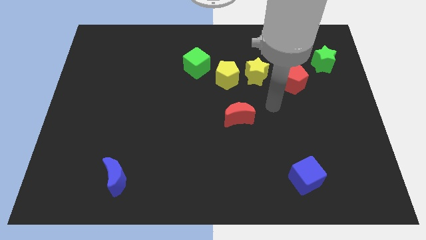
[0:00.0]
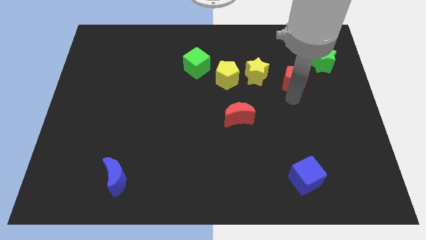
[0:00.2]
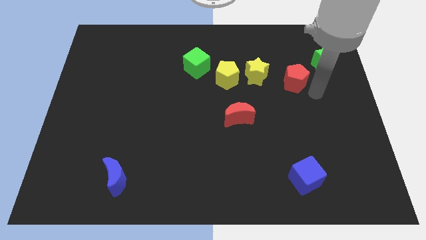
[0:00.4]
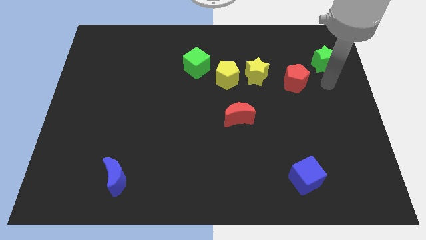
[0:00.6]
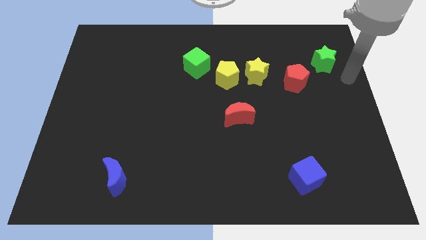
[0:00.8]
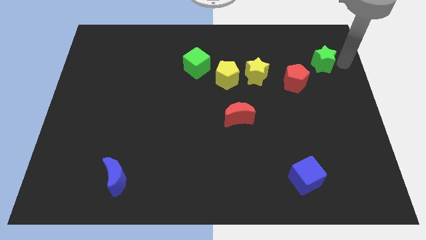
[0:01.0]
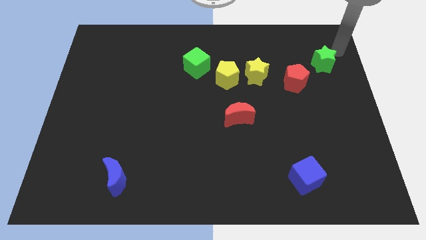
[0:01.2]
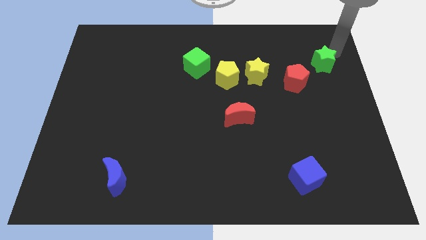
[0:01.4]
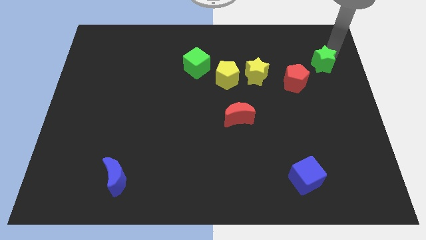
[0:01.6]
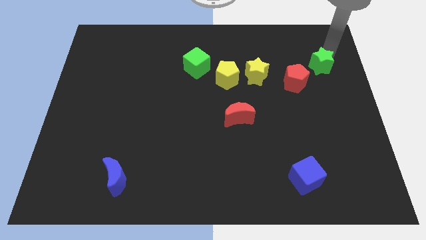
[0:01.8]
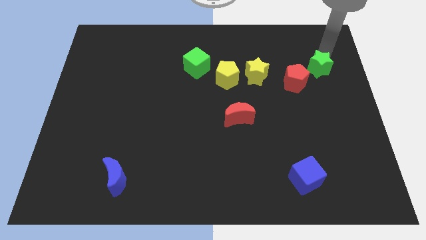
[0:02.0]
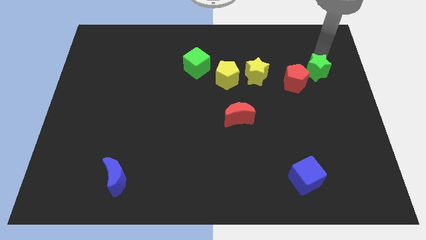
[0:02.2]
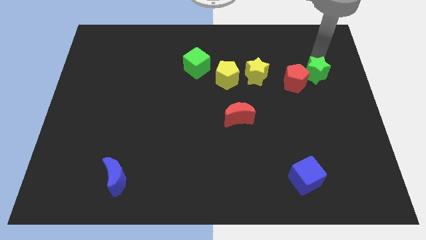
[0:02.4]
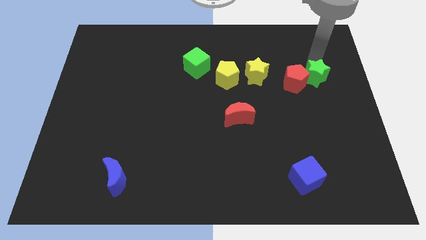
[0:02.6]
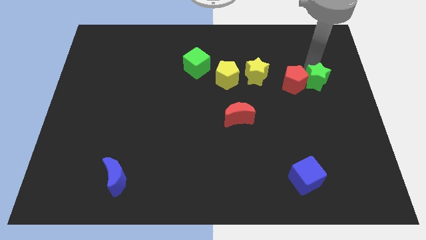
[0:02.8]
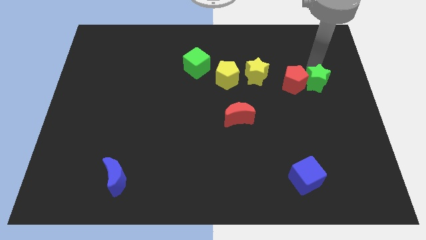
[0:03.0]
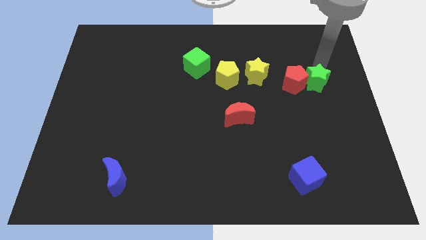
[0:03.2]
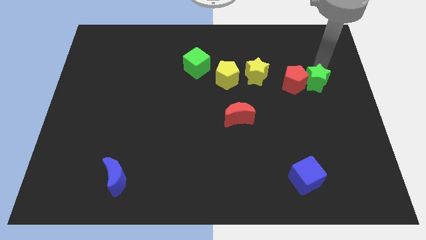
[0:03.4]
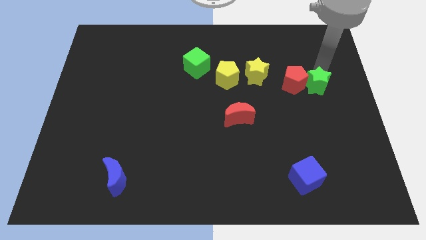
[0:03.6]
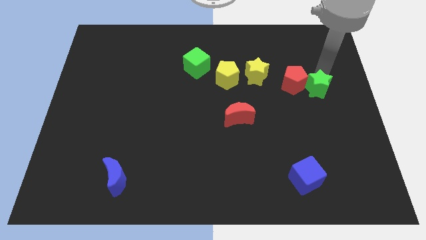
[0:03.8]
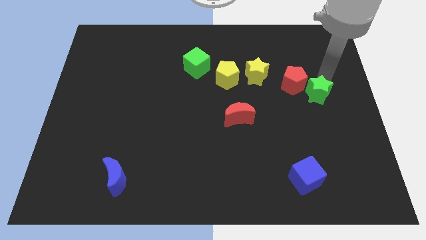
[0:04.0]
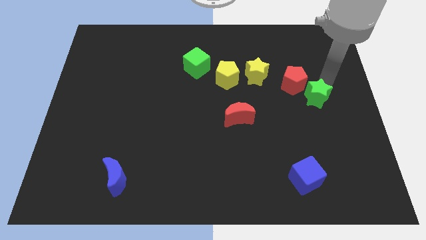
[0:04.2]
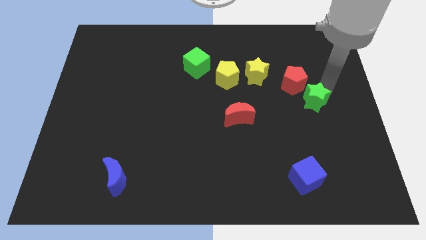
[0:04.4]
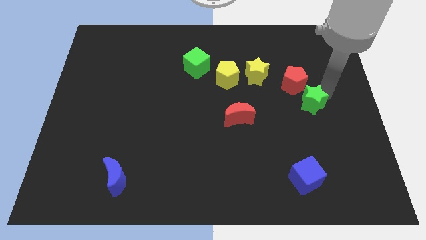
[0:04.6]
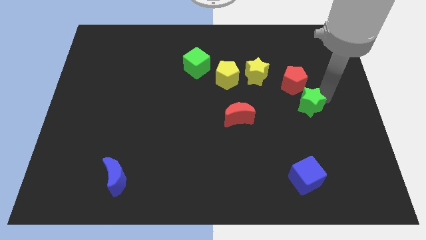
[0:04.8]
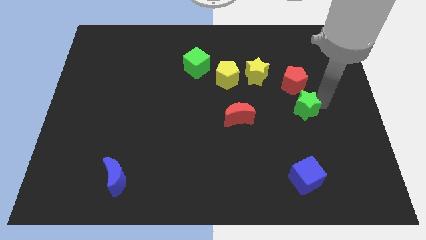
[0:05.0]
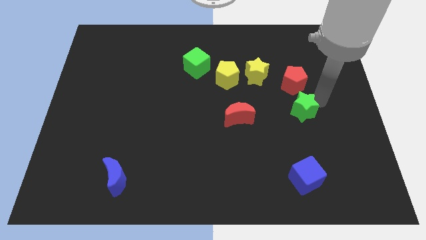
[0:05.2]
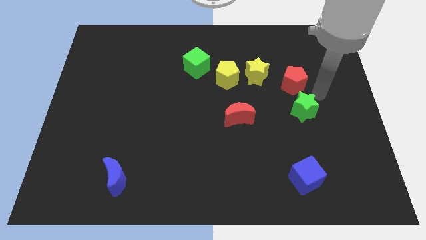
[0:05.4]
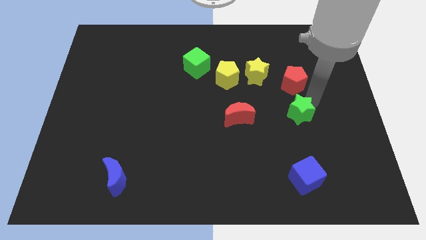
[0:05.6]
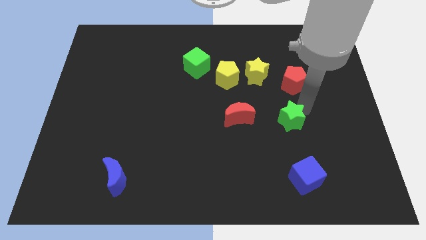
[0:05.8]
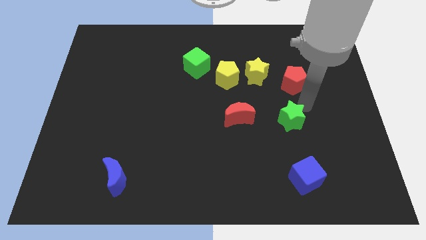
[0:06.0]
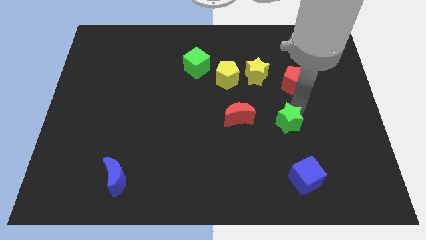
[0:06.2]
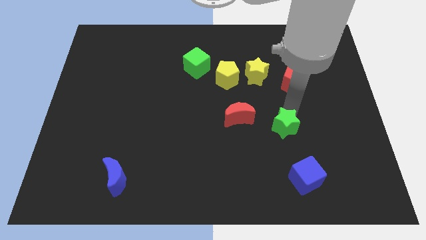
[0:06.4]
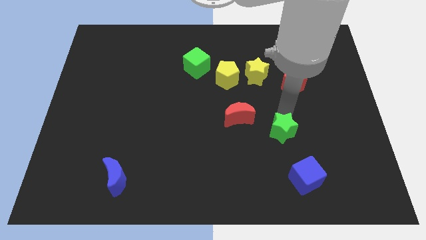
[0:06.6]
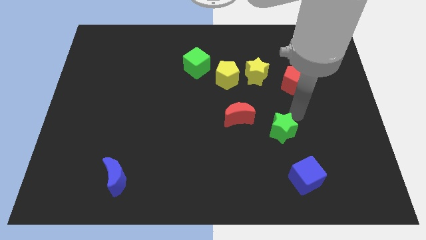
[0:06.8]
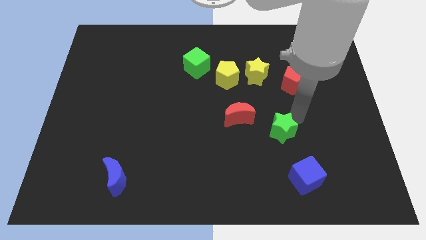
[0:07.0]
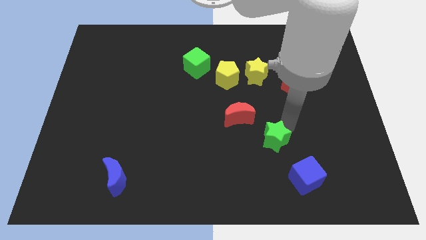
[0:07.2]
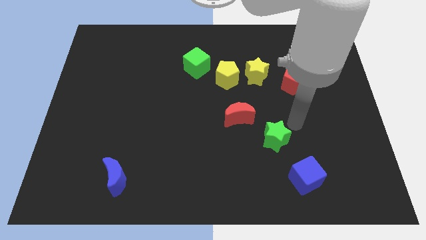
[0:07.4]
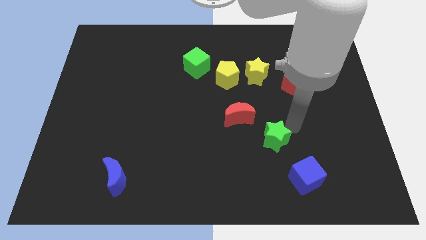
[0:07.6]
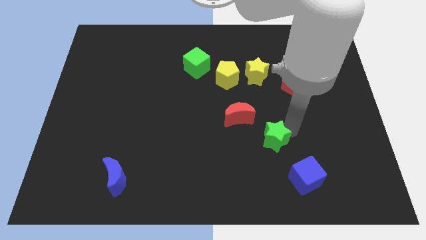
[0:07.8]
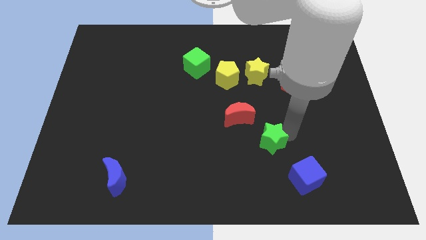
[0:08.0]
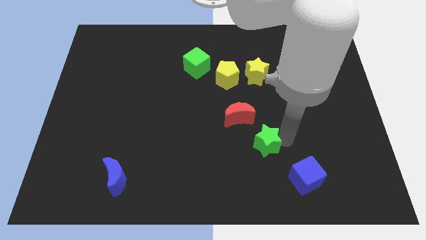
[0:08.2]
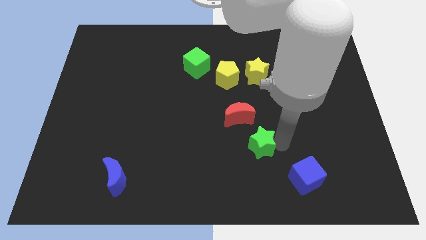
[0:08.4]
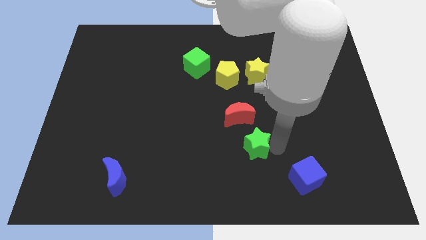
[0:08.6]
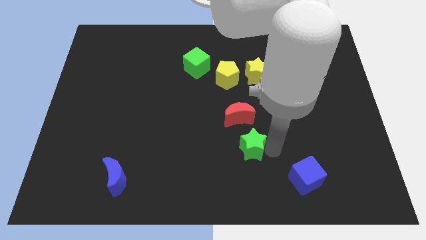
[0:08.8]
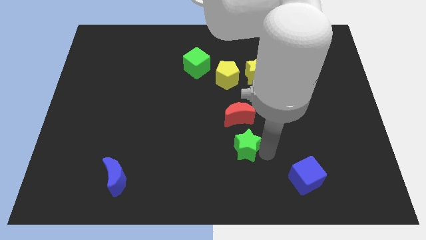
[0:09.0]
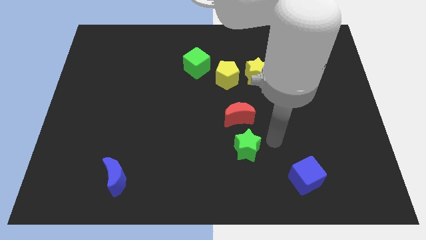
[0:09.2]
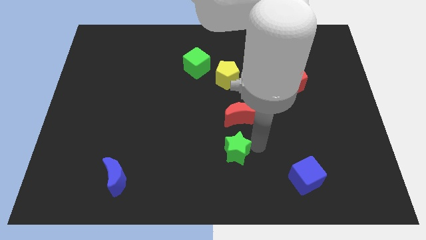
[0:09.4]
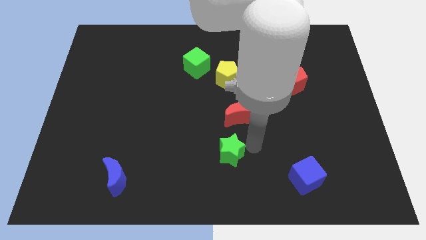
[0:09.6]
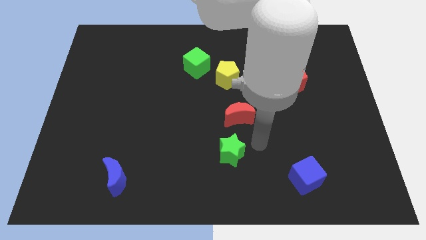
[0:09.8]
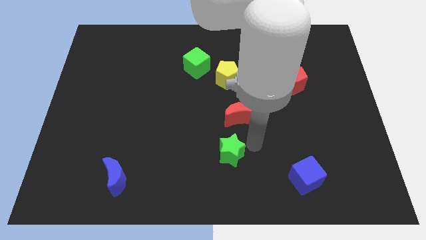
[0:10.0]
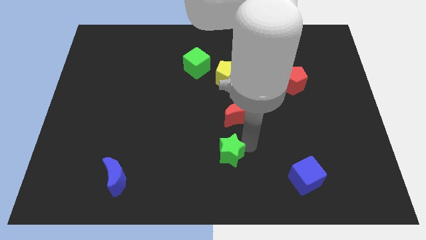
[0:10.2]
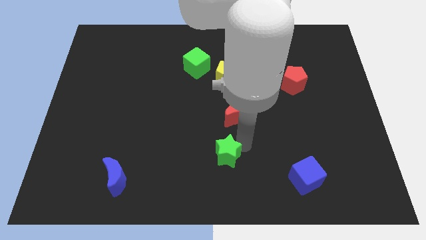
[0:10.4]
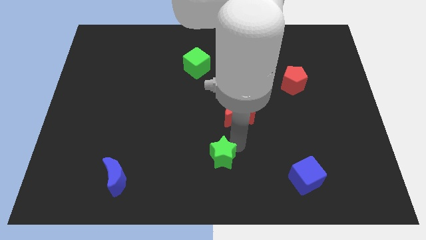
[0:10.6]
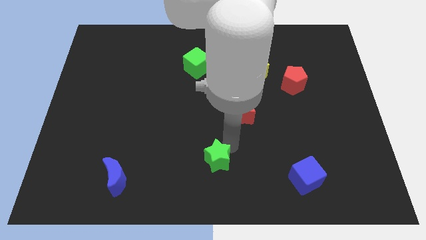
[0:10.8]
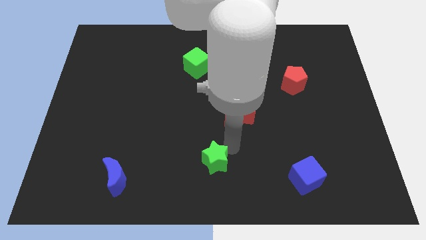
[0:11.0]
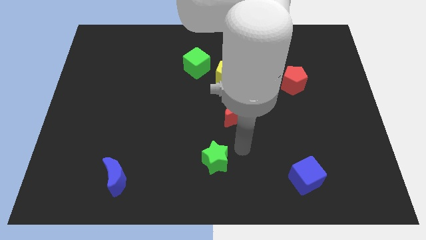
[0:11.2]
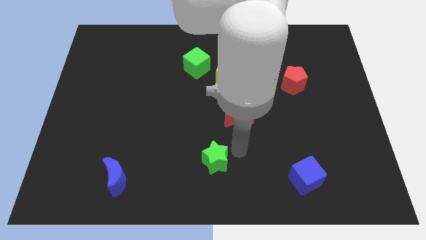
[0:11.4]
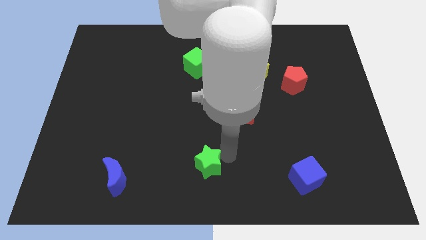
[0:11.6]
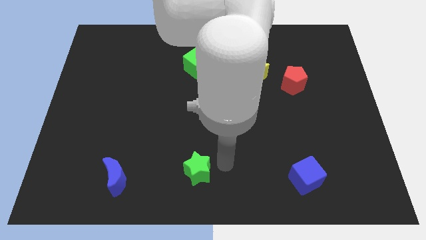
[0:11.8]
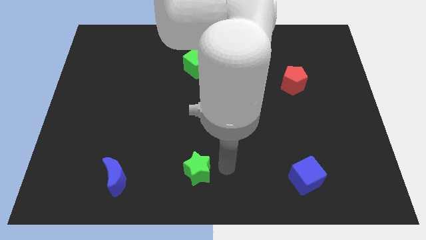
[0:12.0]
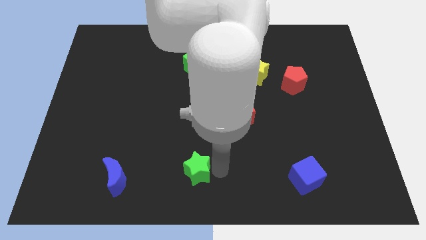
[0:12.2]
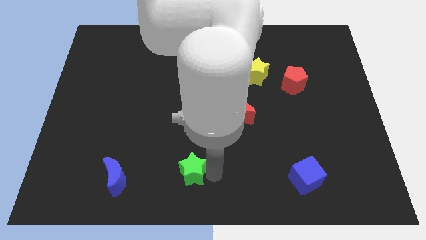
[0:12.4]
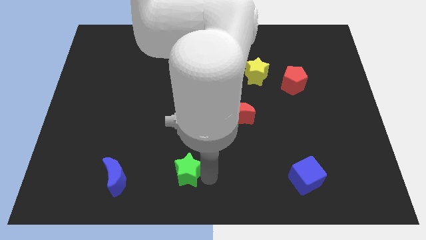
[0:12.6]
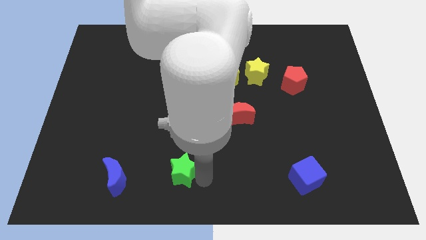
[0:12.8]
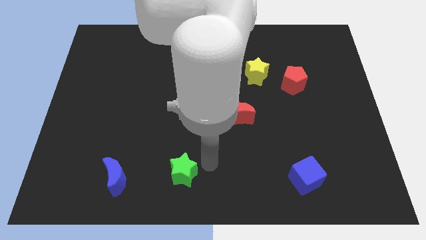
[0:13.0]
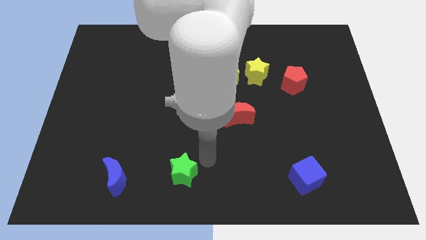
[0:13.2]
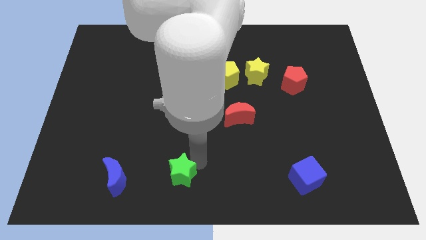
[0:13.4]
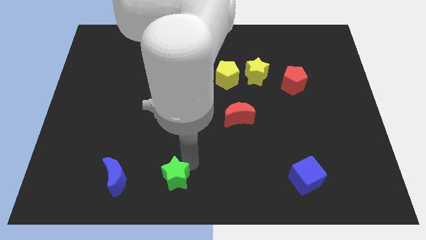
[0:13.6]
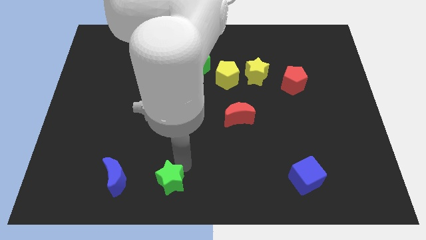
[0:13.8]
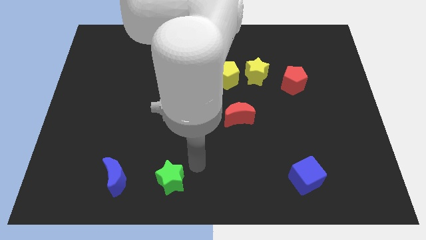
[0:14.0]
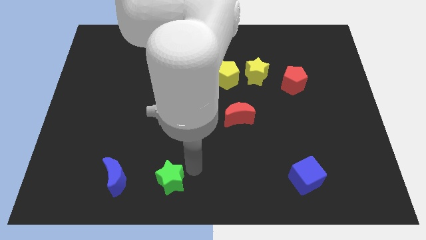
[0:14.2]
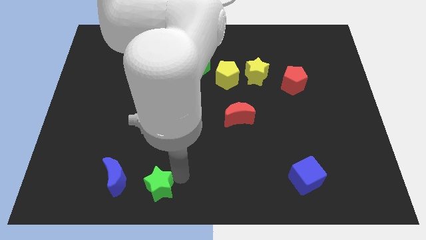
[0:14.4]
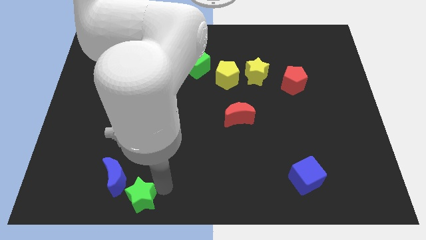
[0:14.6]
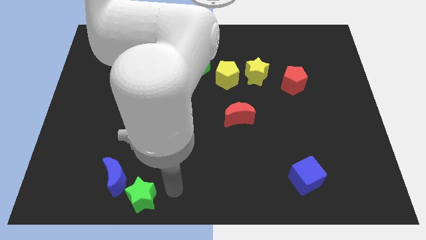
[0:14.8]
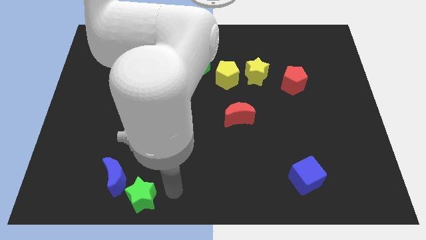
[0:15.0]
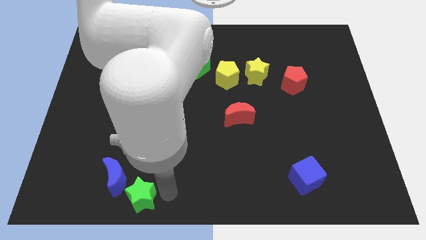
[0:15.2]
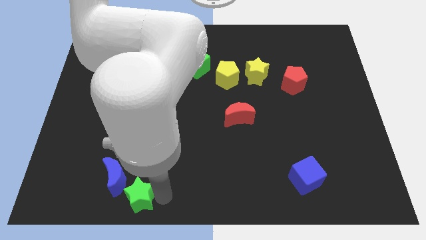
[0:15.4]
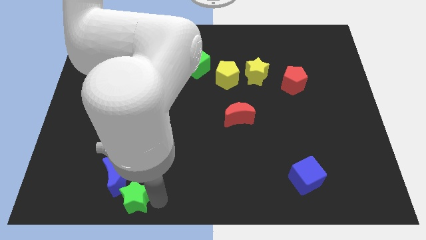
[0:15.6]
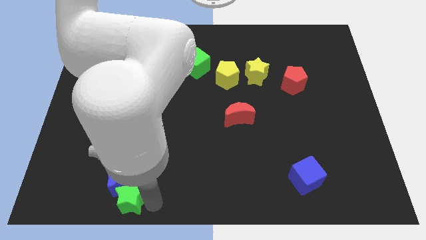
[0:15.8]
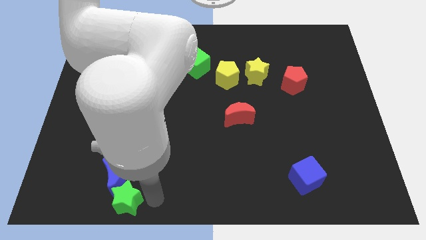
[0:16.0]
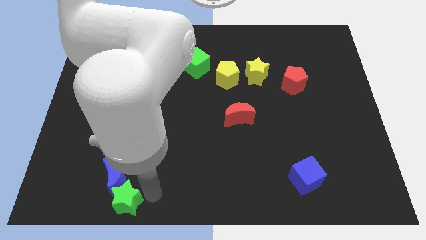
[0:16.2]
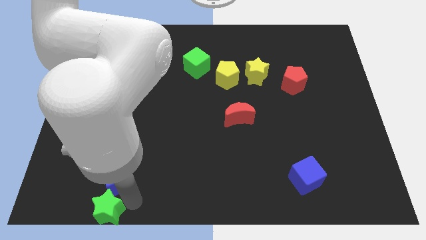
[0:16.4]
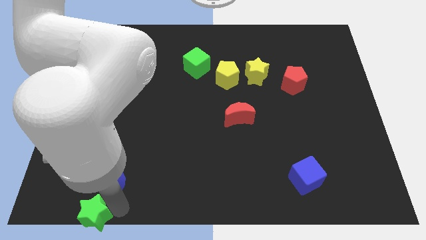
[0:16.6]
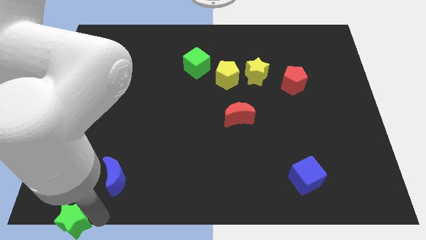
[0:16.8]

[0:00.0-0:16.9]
move the green star to the bottom left
